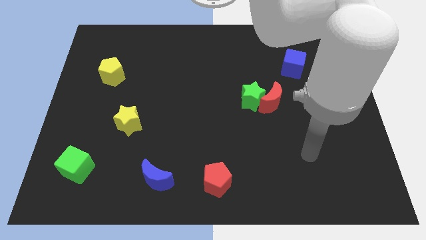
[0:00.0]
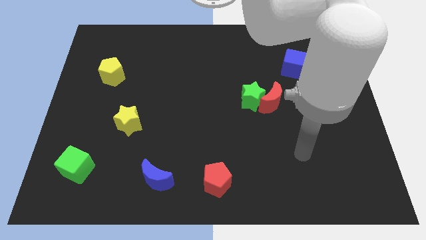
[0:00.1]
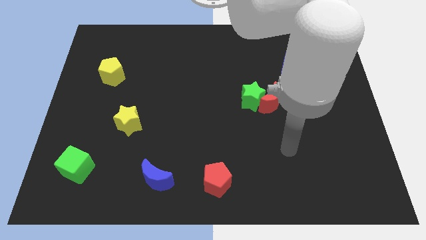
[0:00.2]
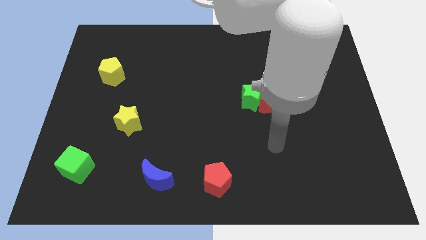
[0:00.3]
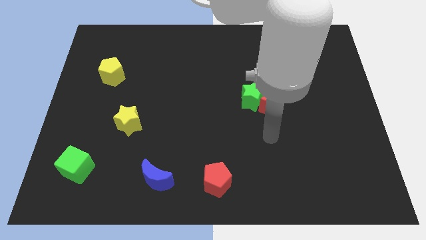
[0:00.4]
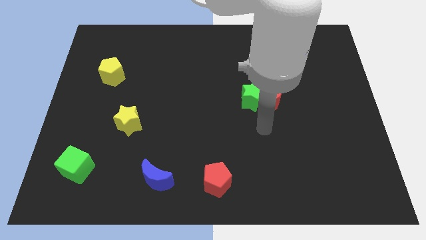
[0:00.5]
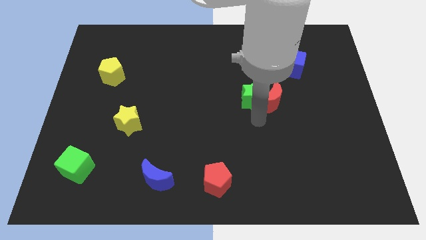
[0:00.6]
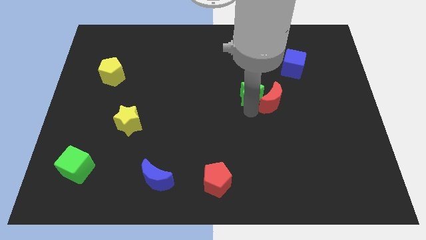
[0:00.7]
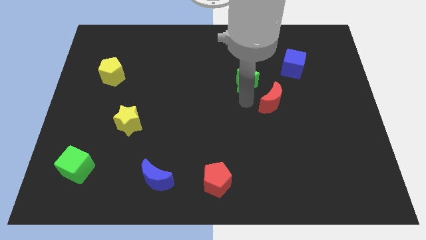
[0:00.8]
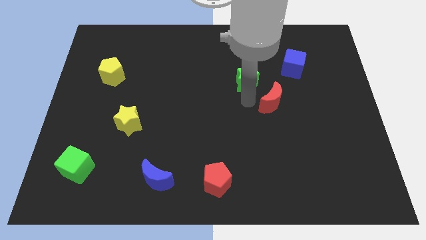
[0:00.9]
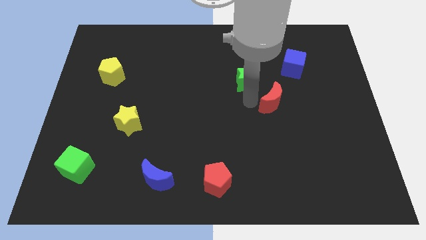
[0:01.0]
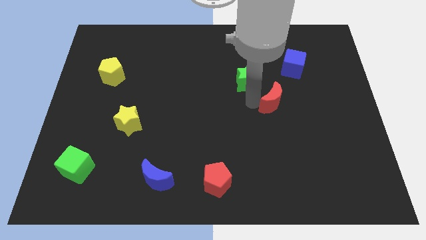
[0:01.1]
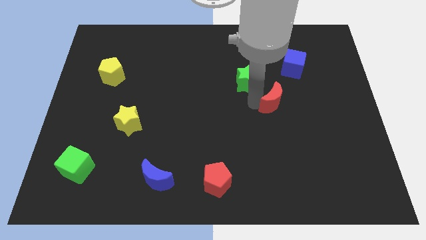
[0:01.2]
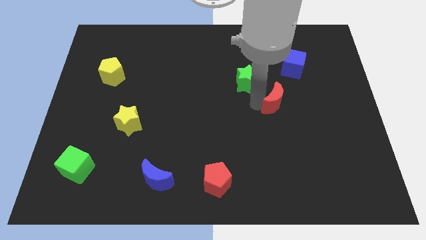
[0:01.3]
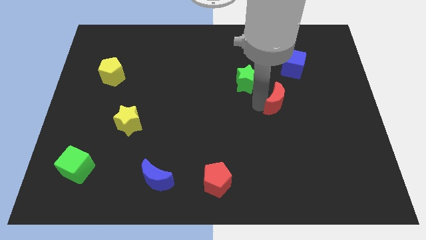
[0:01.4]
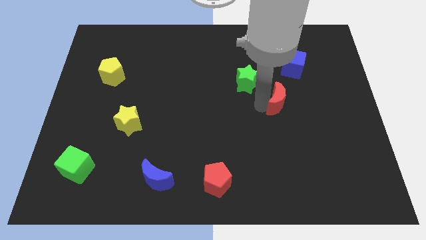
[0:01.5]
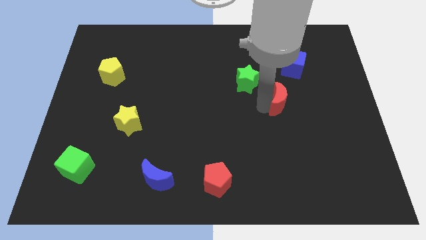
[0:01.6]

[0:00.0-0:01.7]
pull the red moon apart from the green star

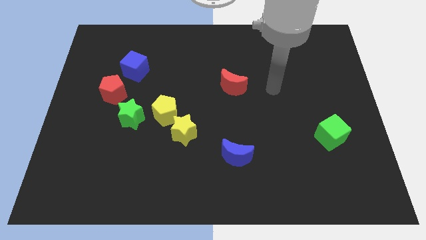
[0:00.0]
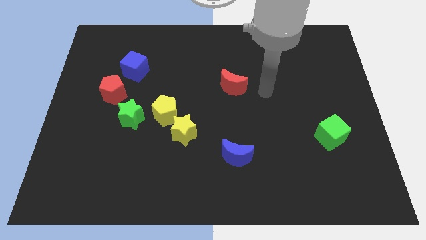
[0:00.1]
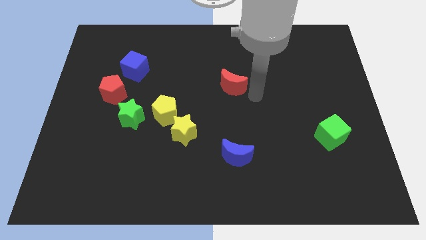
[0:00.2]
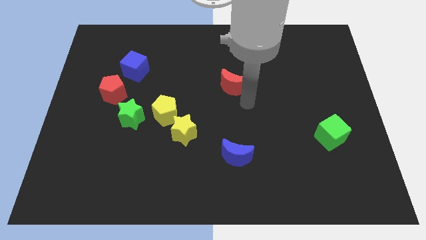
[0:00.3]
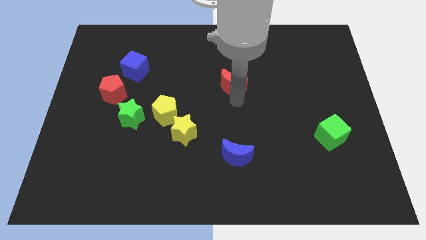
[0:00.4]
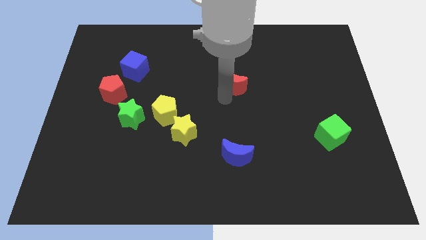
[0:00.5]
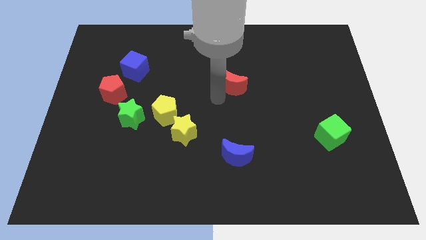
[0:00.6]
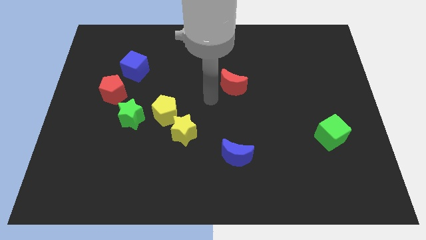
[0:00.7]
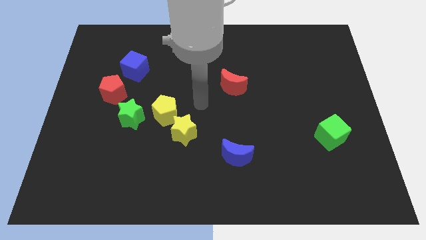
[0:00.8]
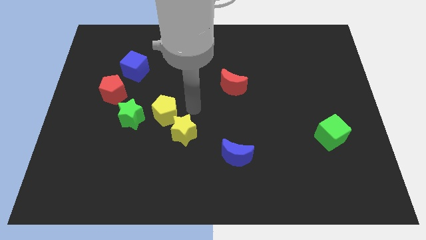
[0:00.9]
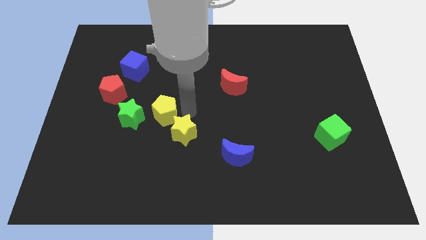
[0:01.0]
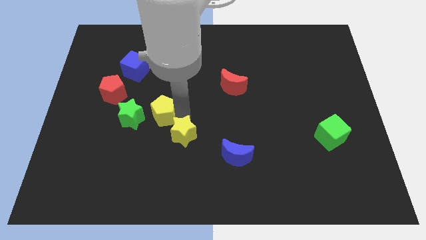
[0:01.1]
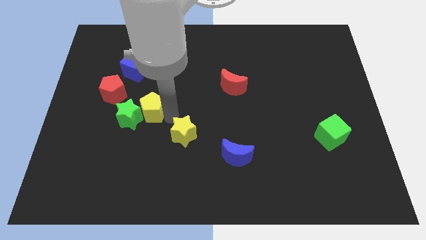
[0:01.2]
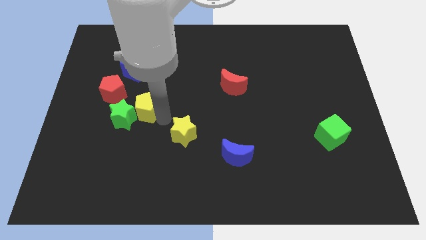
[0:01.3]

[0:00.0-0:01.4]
move the yellow star away from the yellow pentagon

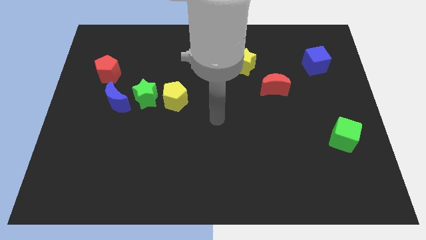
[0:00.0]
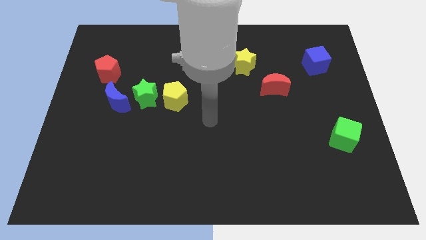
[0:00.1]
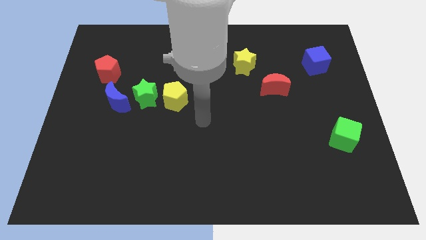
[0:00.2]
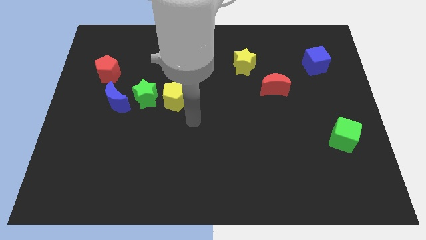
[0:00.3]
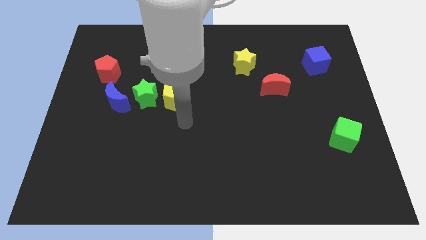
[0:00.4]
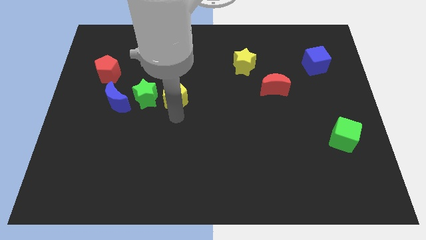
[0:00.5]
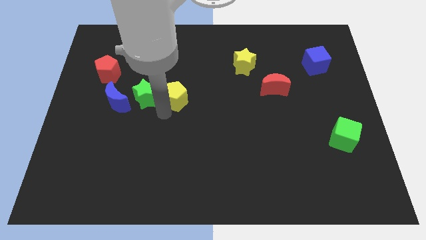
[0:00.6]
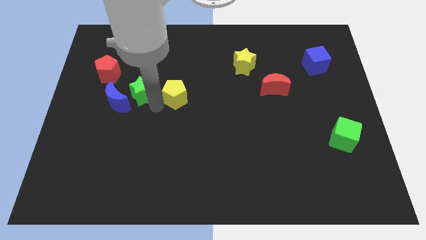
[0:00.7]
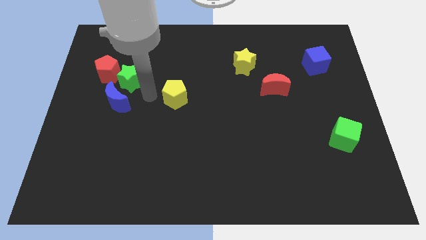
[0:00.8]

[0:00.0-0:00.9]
move the yellow pentagon away from the green star

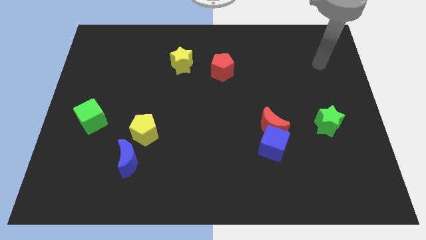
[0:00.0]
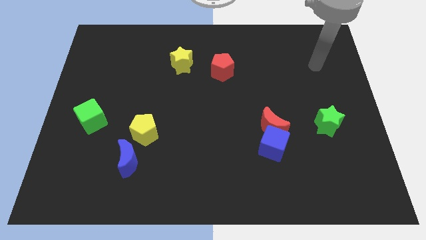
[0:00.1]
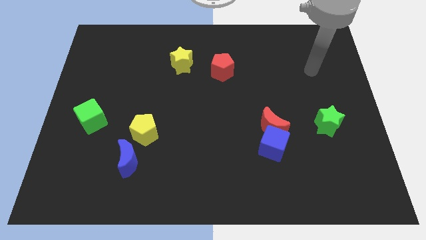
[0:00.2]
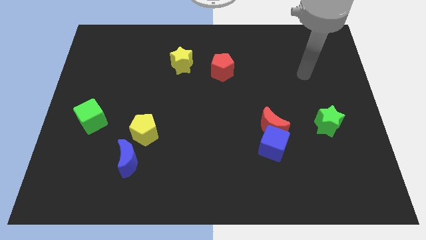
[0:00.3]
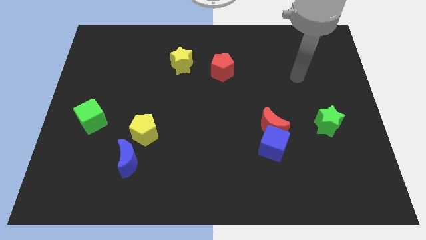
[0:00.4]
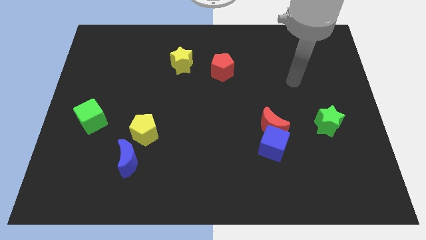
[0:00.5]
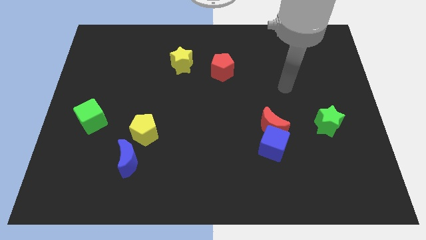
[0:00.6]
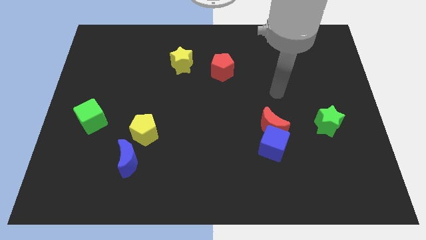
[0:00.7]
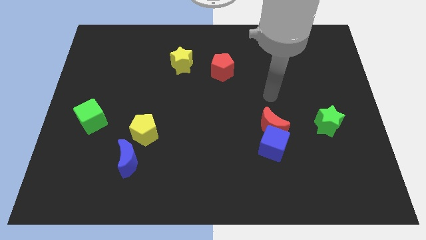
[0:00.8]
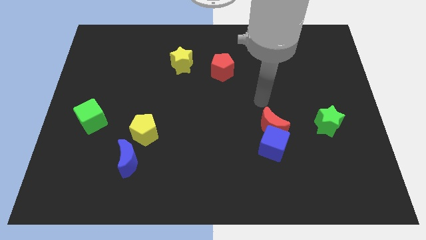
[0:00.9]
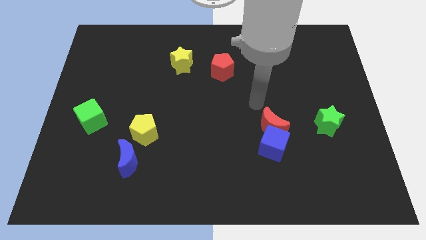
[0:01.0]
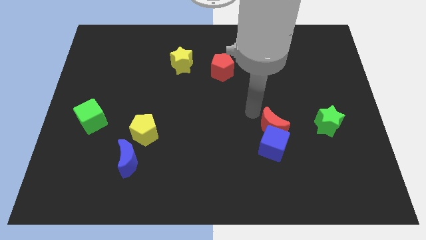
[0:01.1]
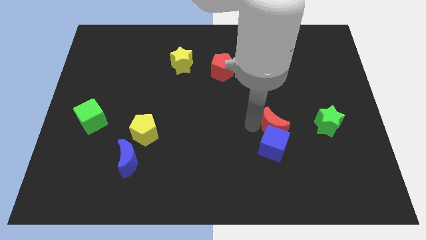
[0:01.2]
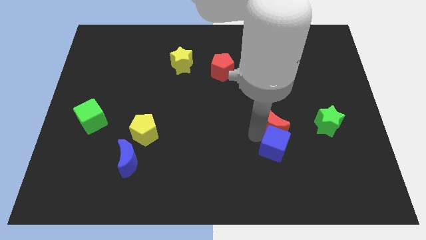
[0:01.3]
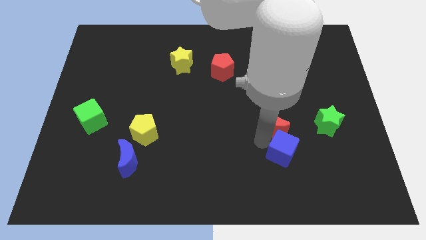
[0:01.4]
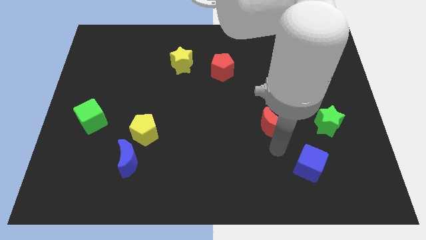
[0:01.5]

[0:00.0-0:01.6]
separate the red moon from the blue cube

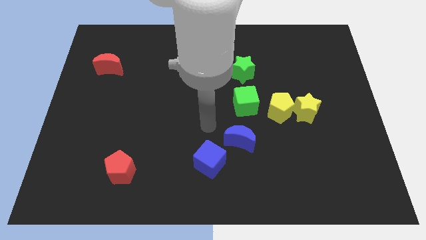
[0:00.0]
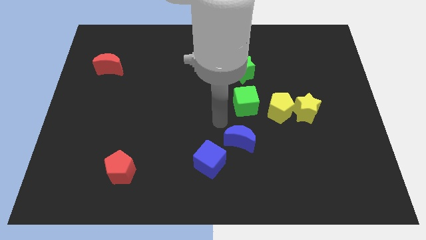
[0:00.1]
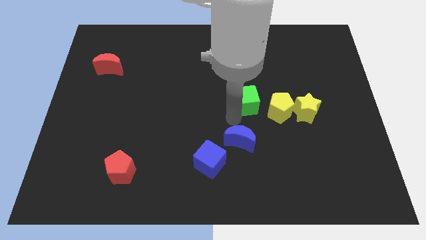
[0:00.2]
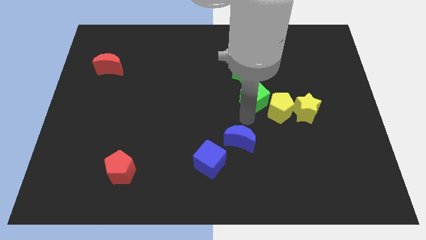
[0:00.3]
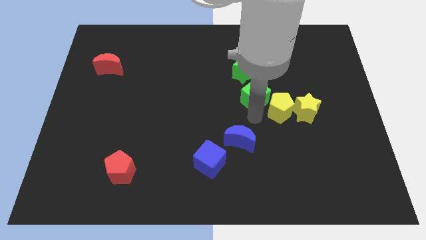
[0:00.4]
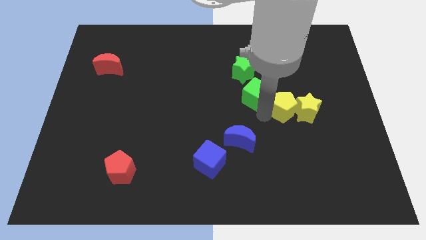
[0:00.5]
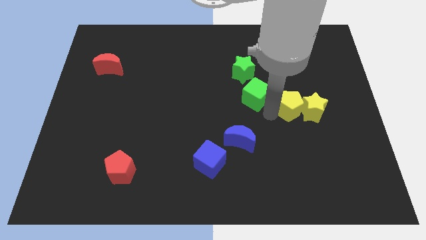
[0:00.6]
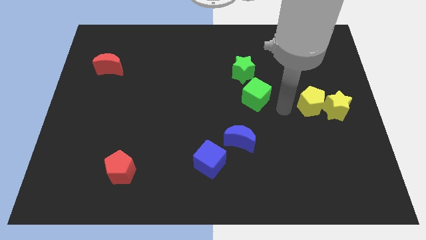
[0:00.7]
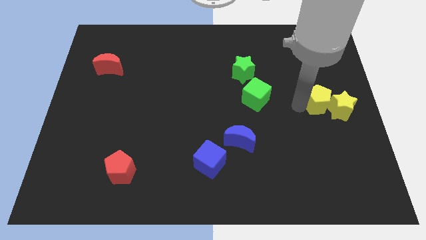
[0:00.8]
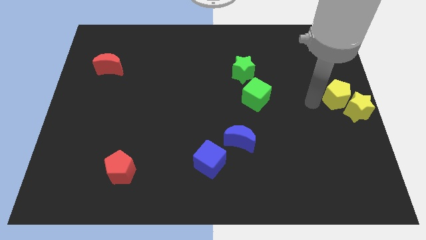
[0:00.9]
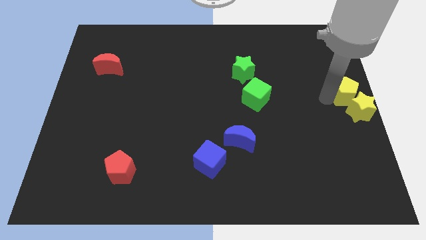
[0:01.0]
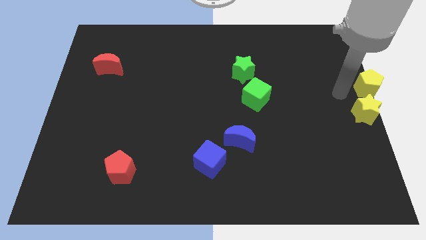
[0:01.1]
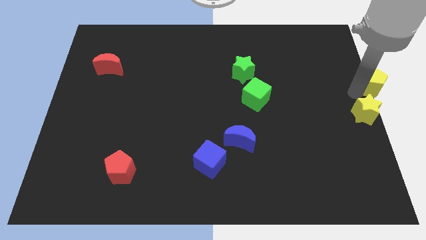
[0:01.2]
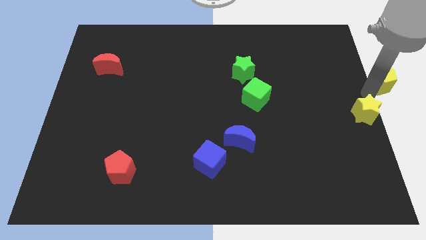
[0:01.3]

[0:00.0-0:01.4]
pull the yellow star apart from the yellow pentagon

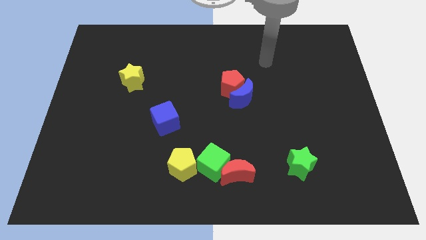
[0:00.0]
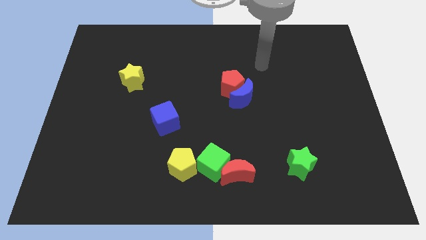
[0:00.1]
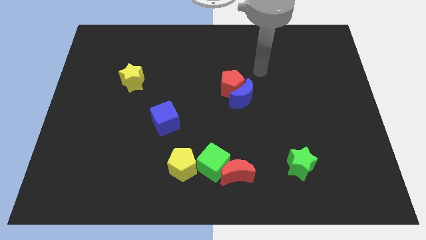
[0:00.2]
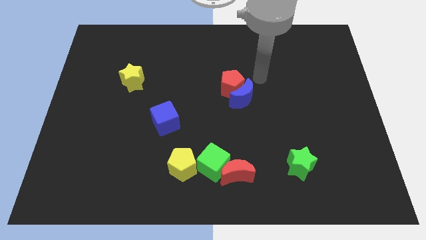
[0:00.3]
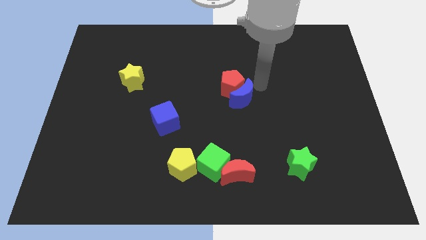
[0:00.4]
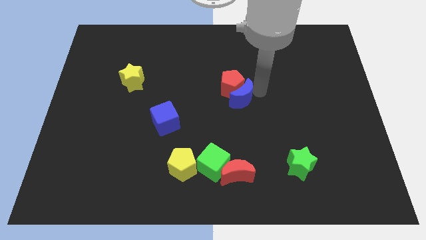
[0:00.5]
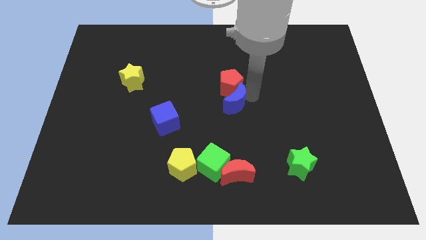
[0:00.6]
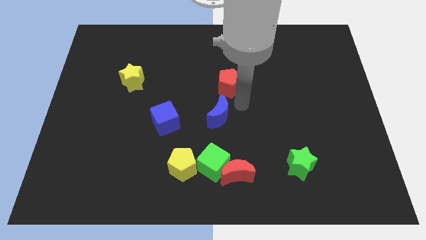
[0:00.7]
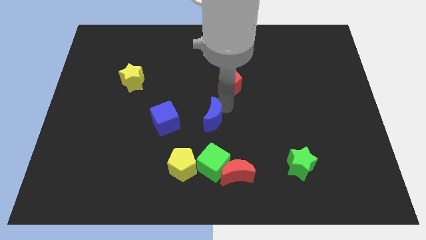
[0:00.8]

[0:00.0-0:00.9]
separate the red pentagon from the blue moon

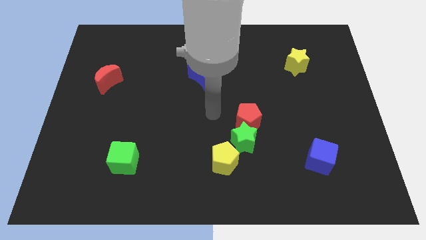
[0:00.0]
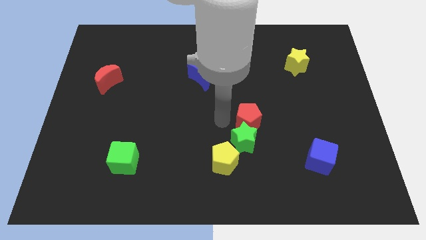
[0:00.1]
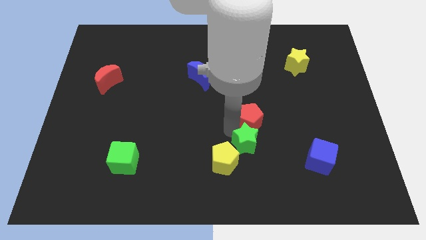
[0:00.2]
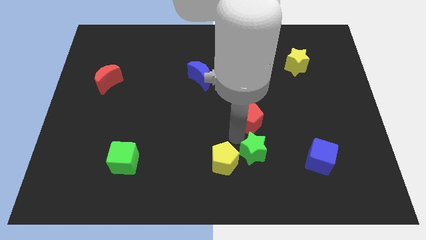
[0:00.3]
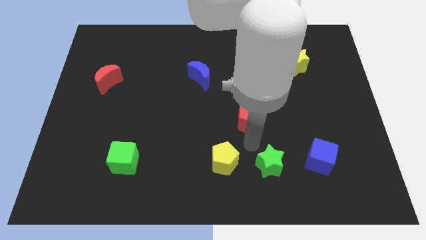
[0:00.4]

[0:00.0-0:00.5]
separate the red pentagon from the green star

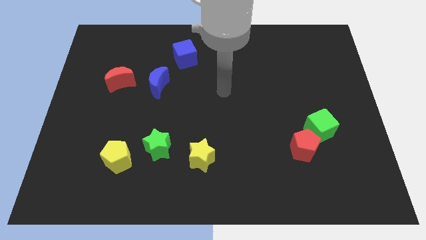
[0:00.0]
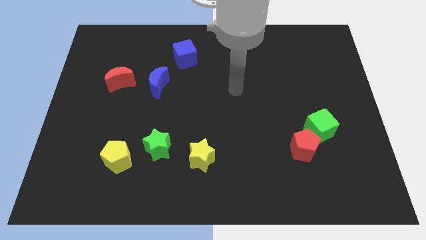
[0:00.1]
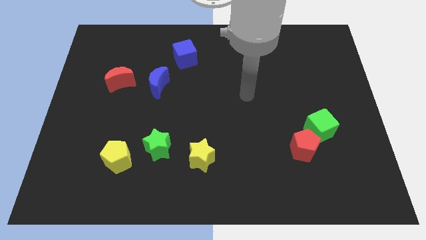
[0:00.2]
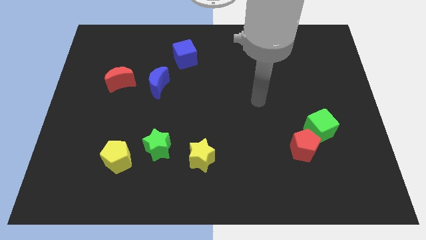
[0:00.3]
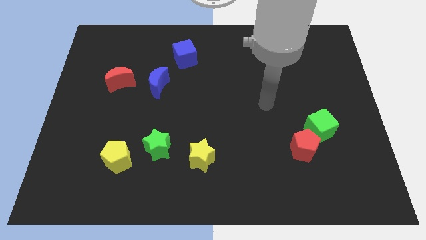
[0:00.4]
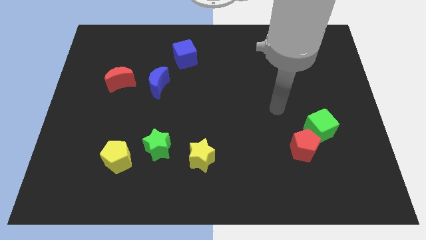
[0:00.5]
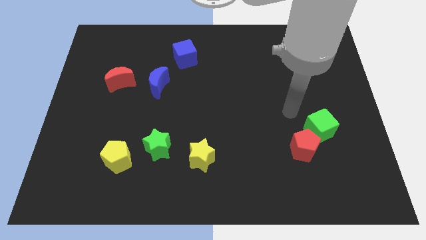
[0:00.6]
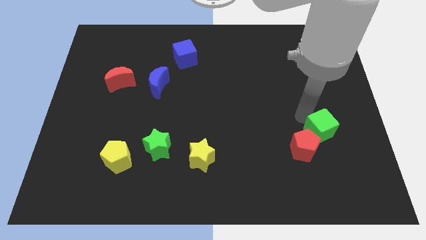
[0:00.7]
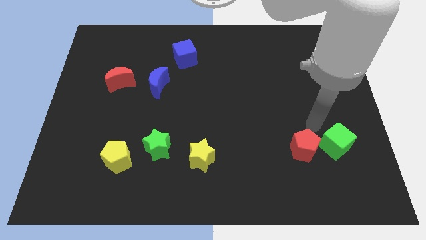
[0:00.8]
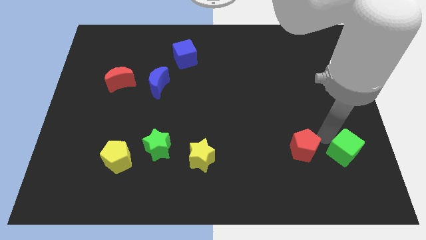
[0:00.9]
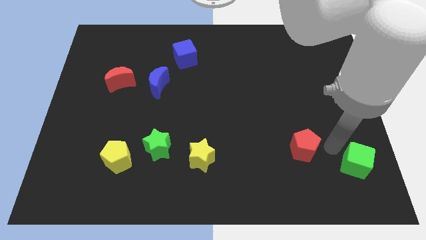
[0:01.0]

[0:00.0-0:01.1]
pull the red pentagon apart from the green cube
